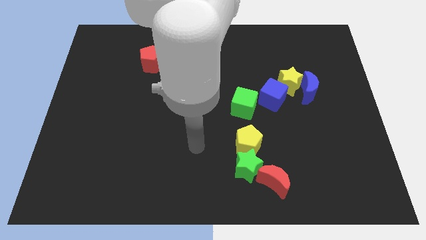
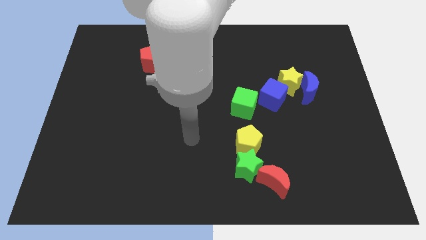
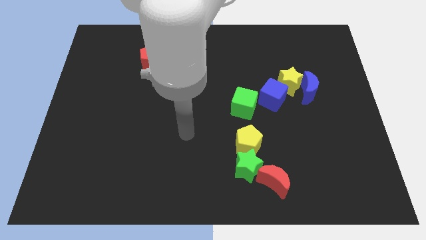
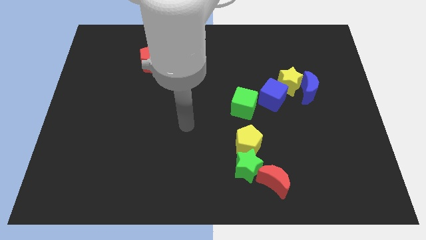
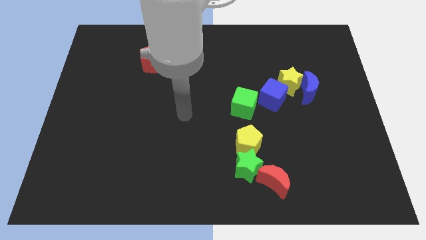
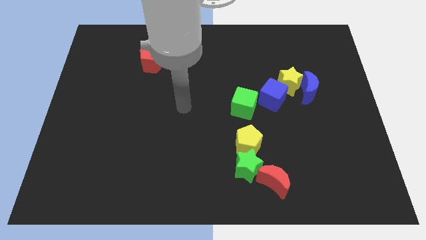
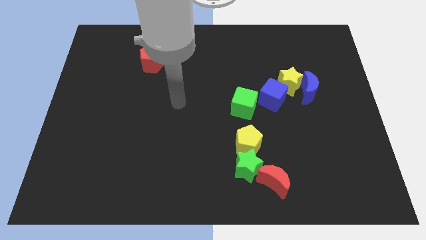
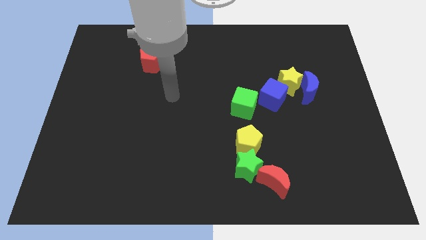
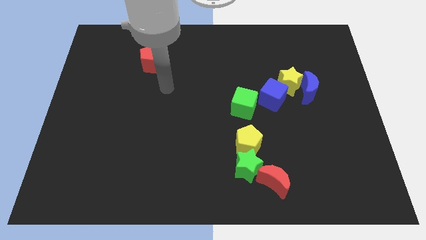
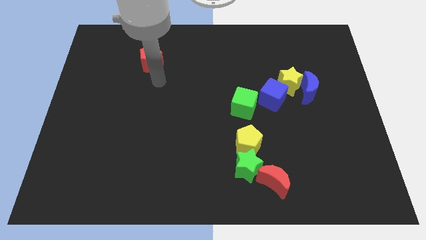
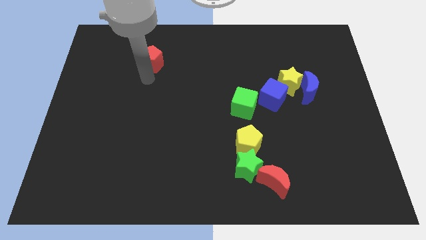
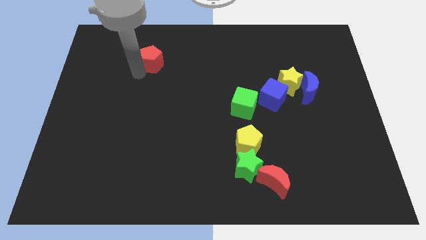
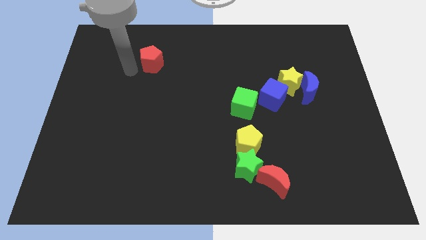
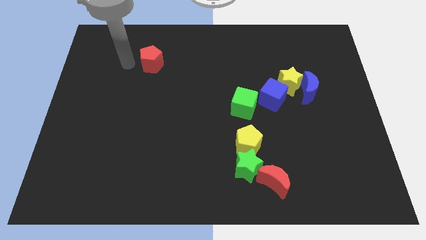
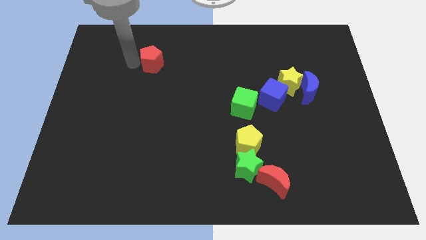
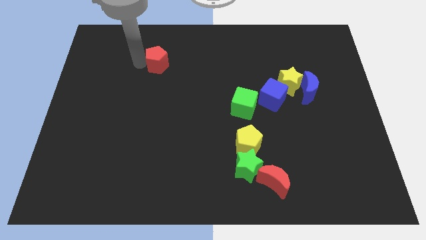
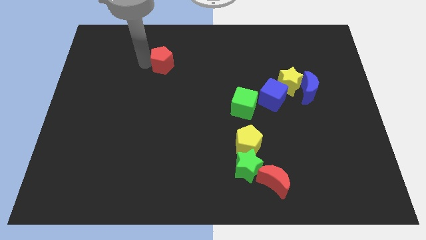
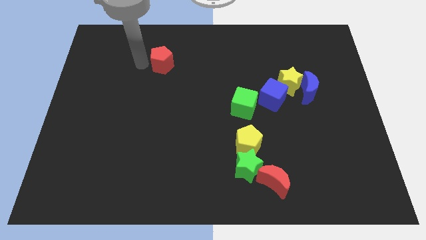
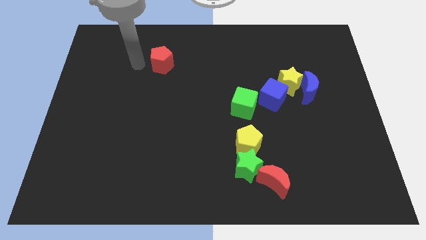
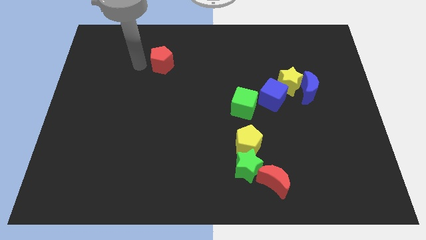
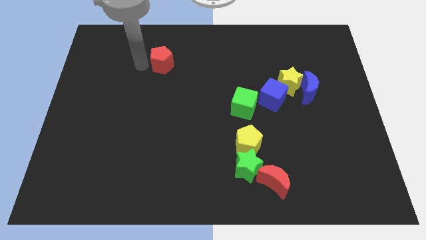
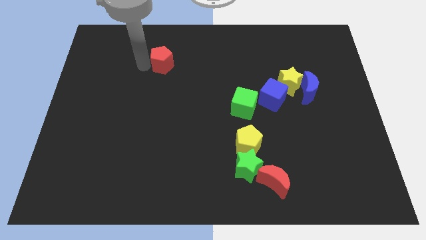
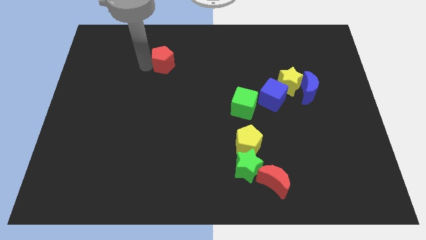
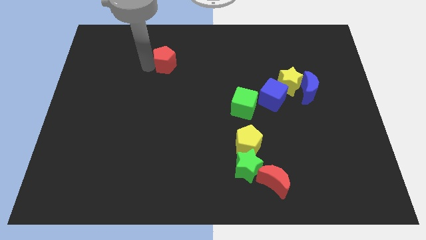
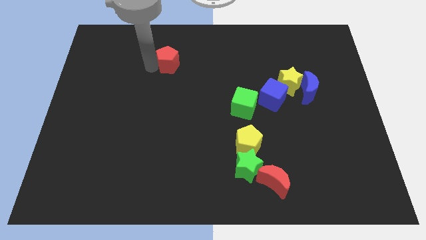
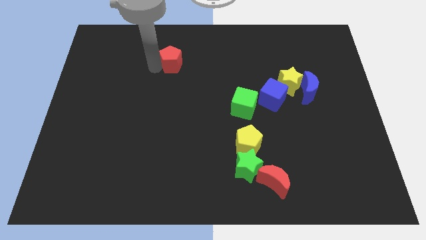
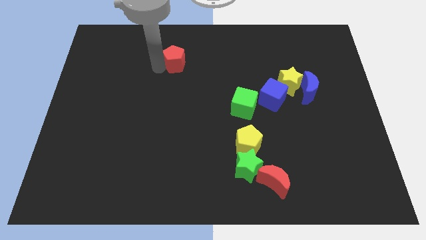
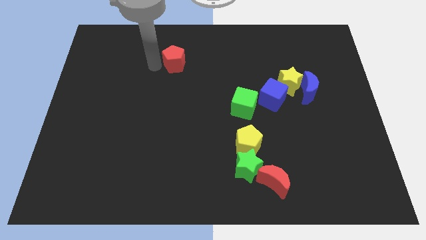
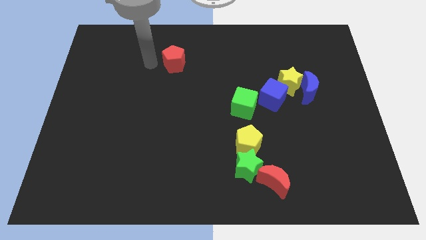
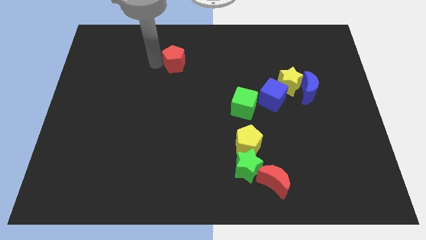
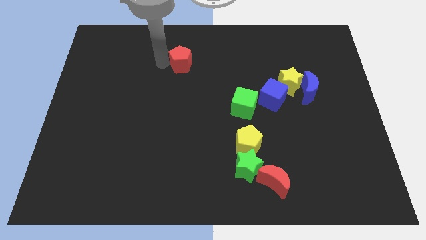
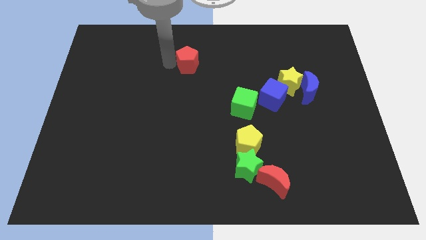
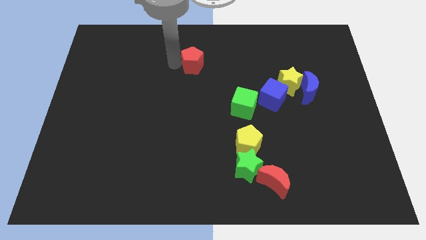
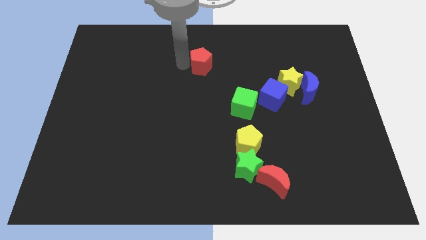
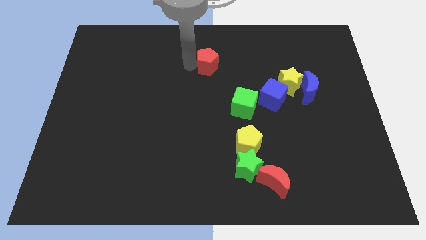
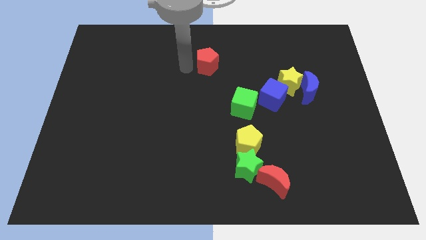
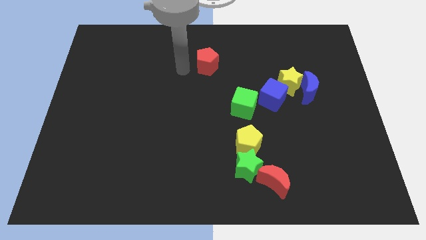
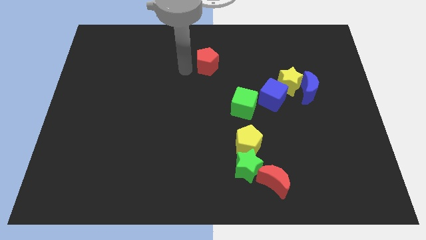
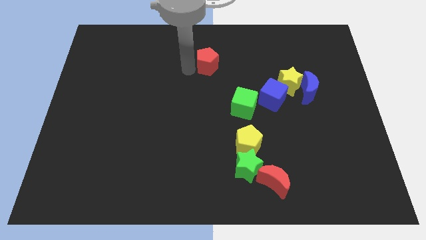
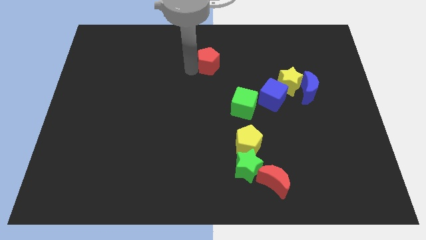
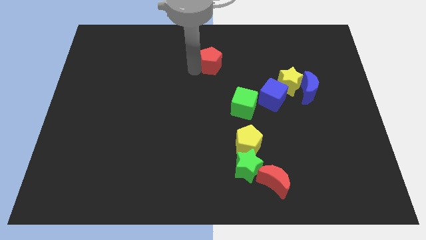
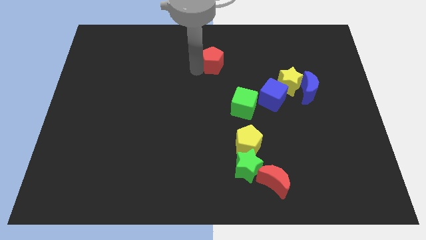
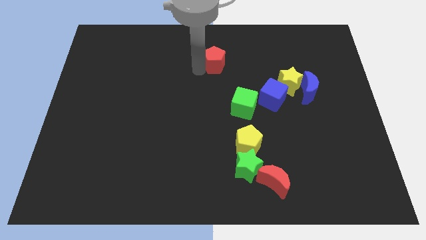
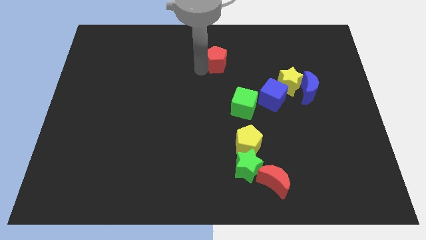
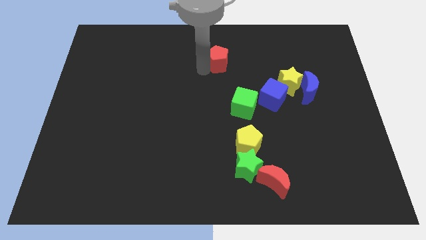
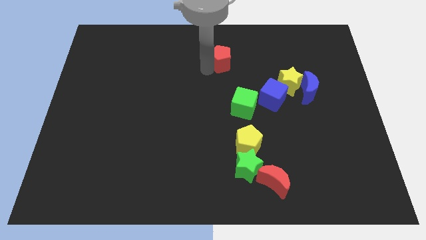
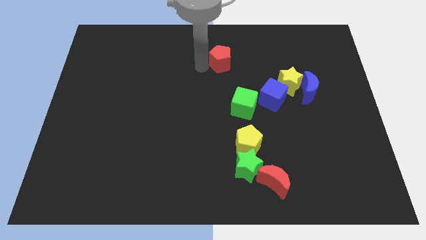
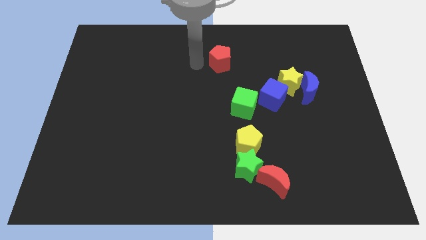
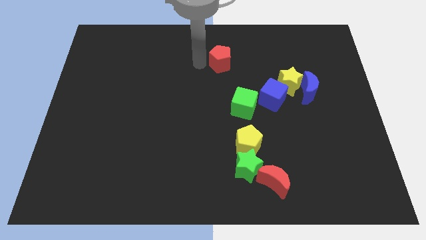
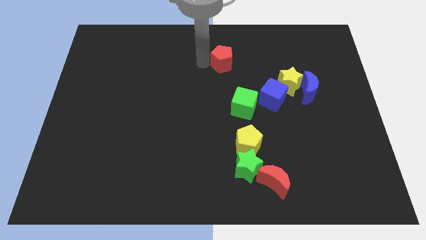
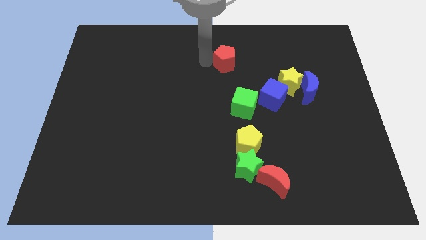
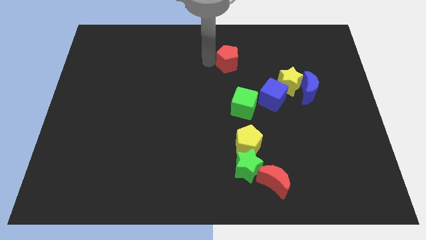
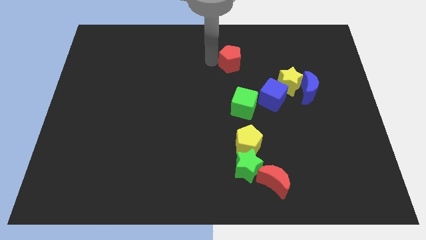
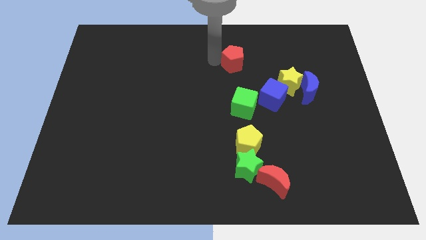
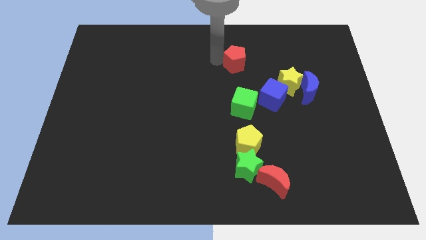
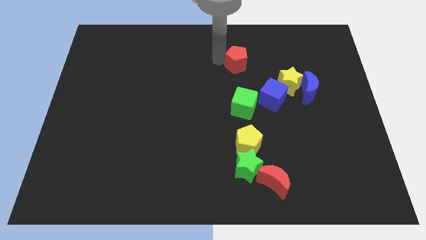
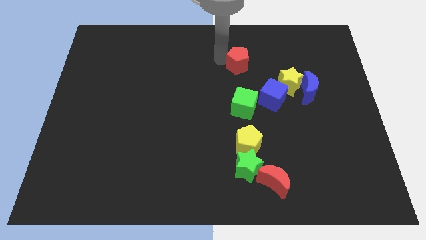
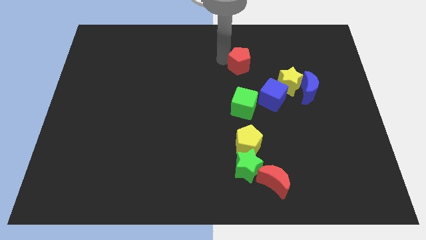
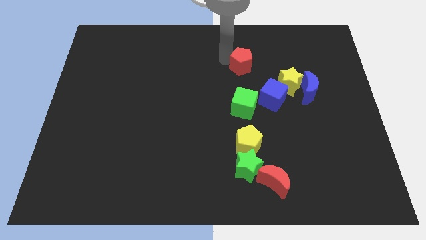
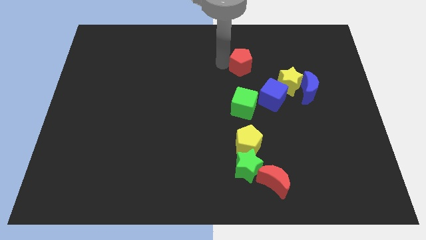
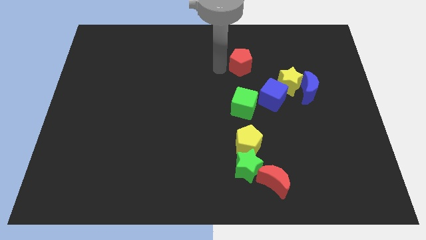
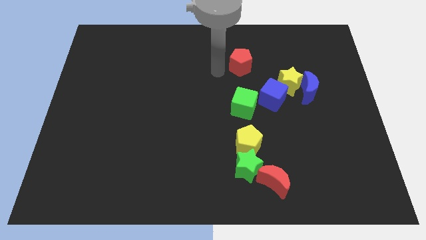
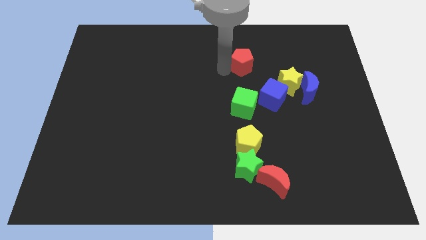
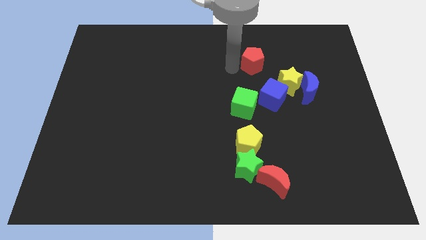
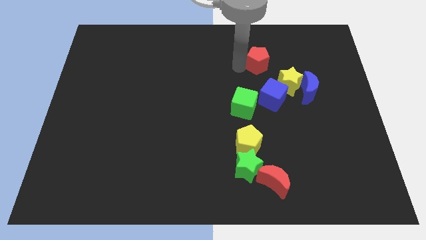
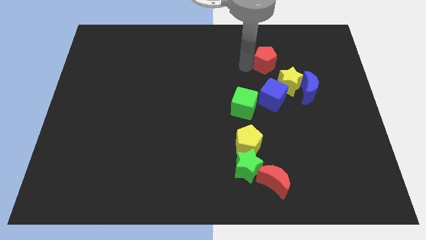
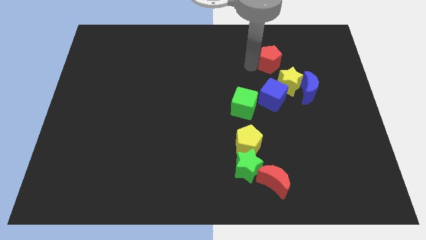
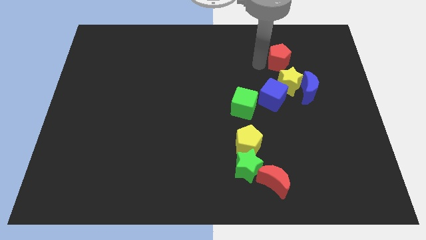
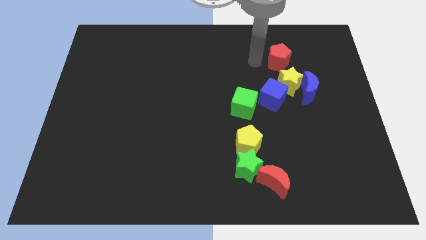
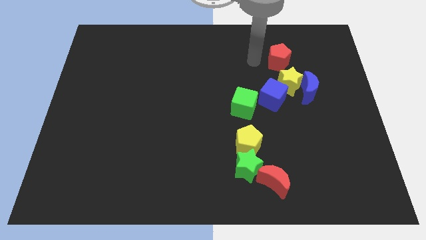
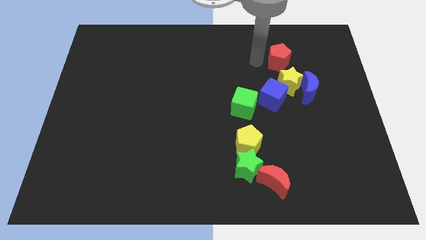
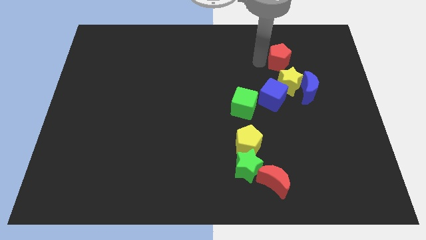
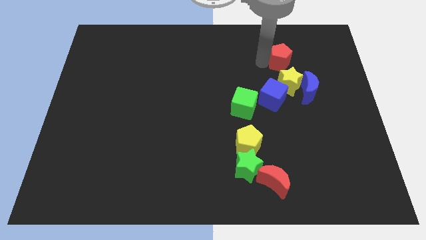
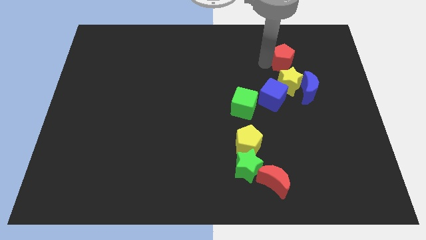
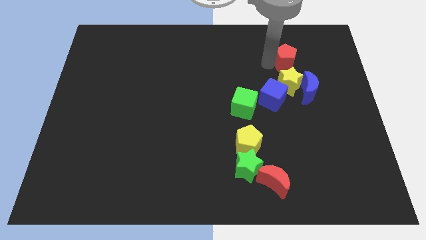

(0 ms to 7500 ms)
put the red pentagon to the top of the blue moon
